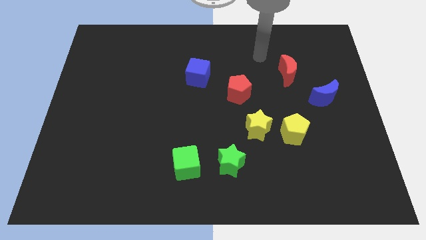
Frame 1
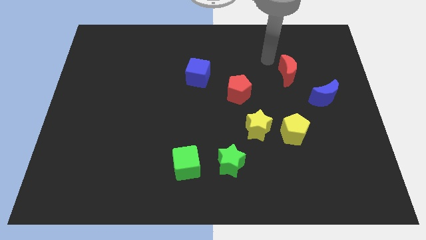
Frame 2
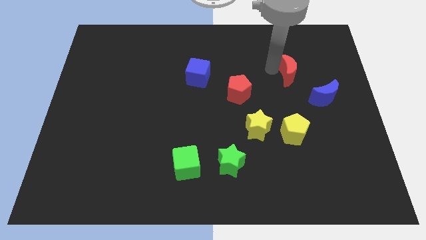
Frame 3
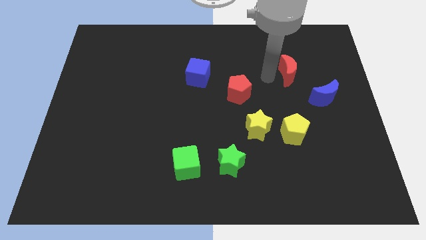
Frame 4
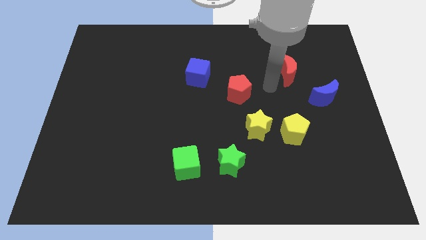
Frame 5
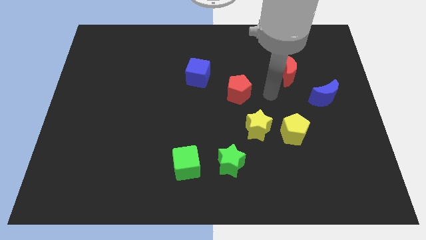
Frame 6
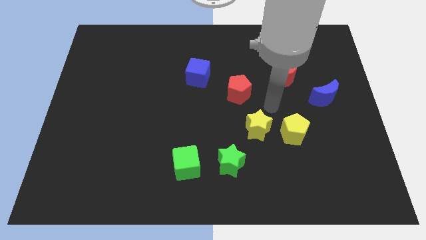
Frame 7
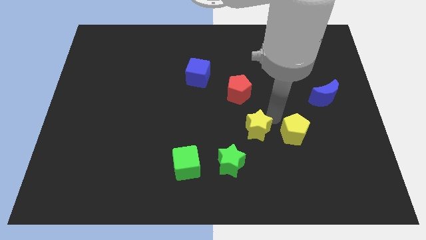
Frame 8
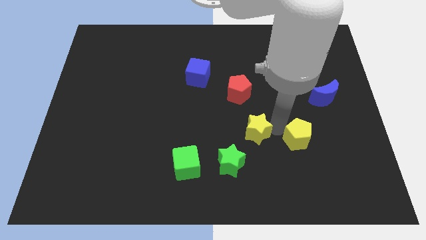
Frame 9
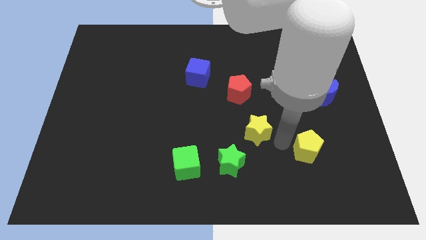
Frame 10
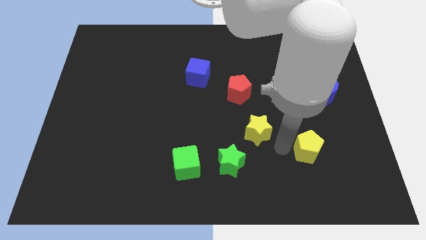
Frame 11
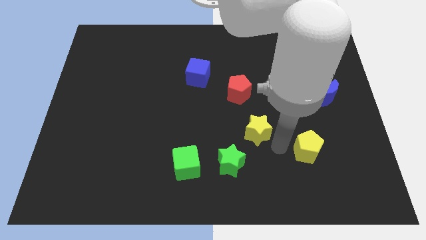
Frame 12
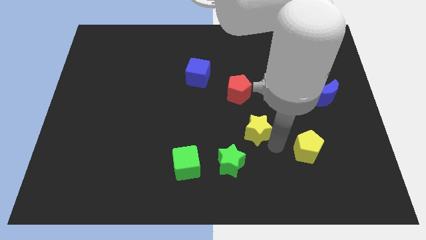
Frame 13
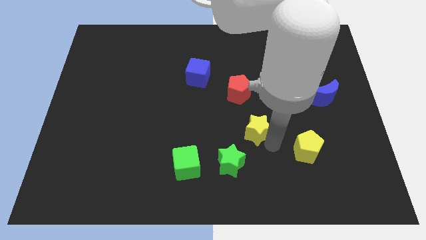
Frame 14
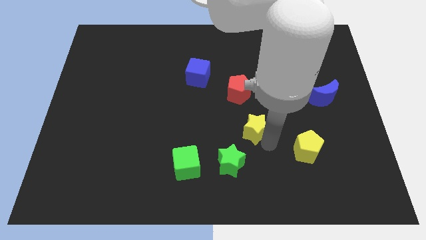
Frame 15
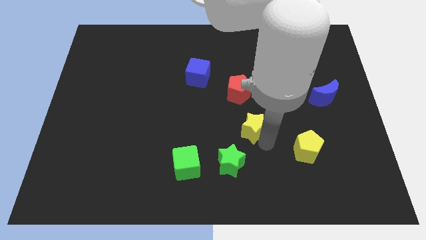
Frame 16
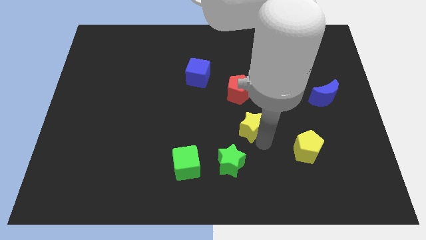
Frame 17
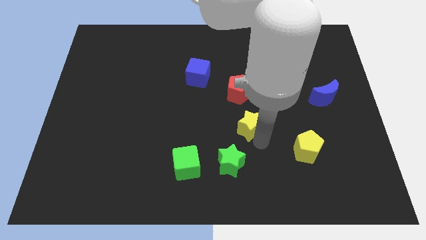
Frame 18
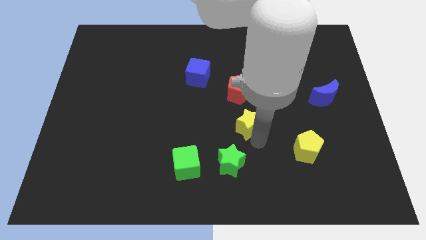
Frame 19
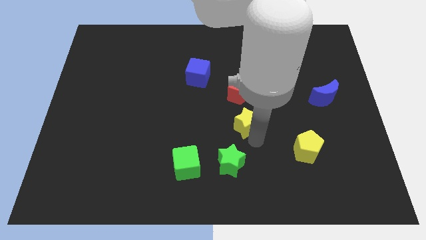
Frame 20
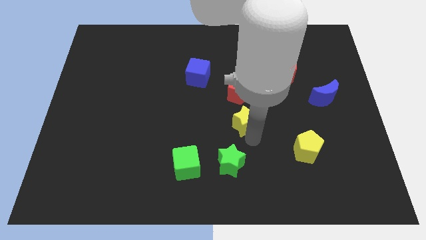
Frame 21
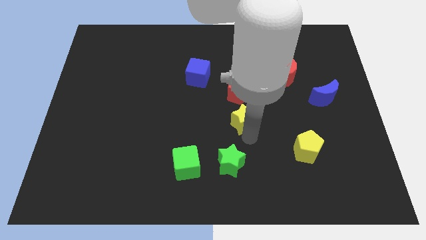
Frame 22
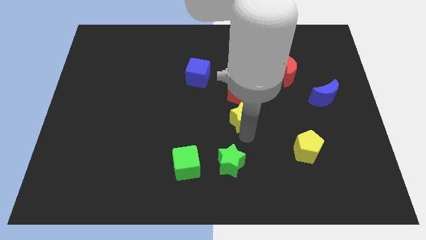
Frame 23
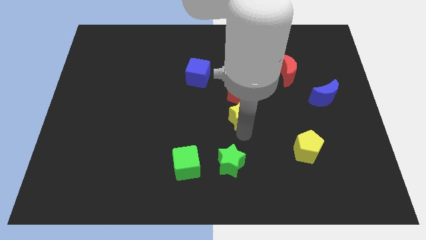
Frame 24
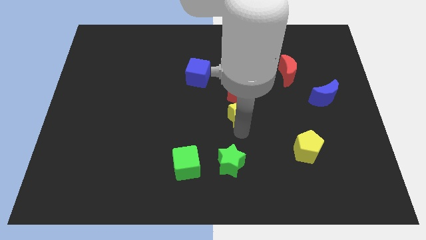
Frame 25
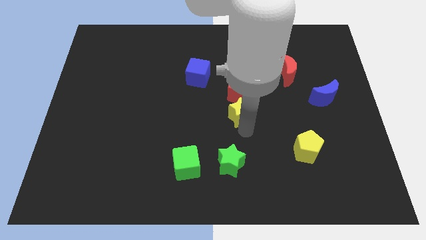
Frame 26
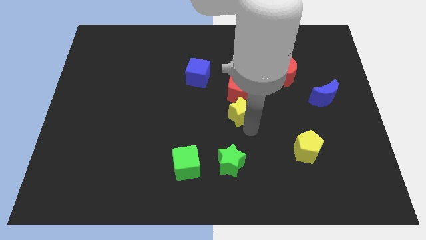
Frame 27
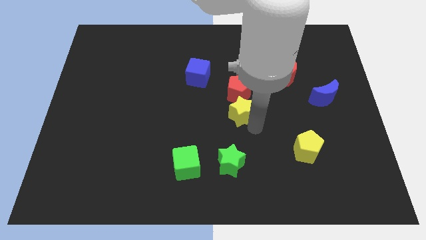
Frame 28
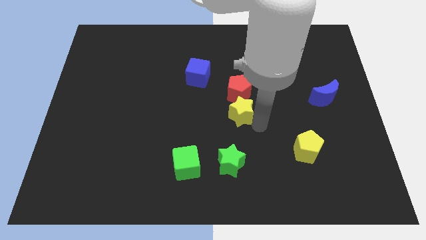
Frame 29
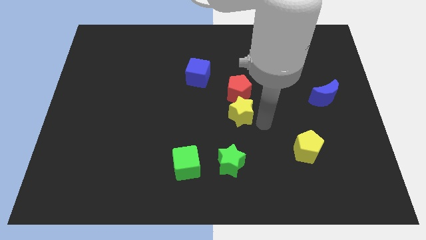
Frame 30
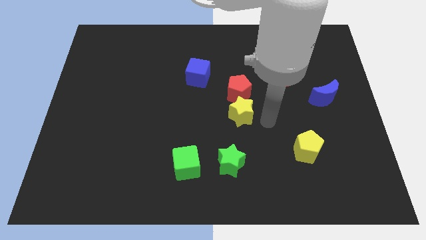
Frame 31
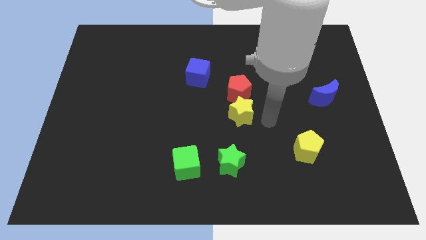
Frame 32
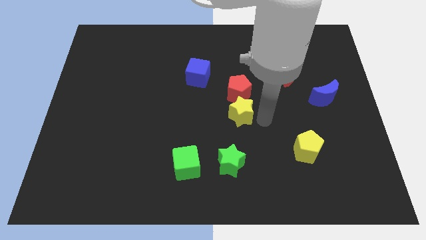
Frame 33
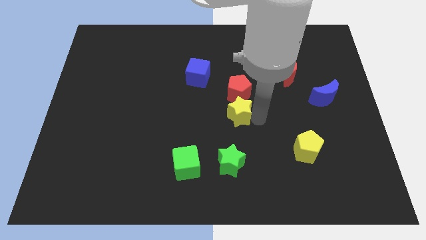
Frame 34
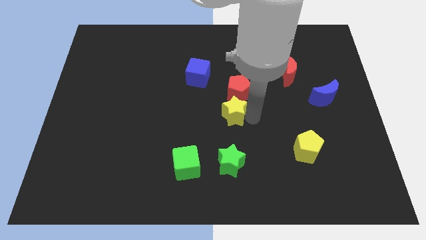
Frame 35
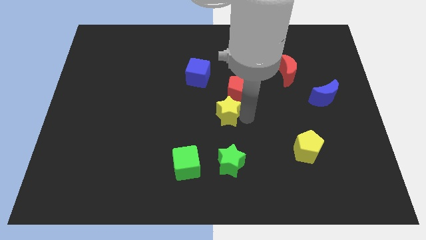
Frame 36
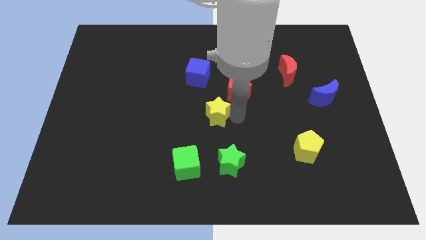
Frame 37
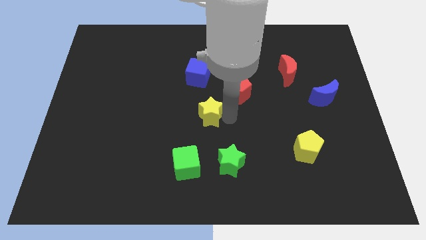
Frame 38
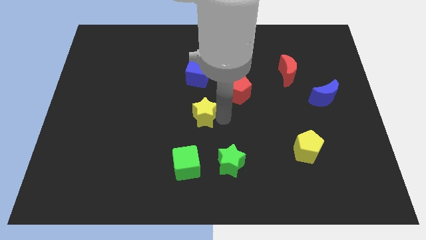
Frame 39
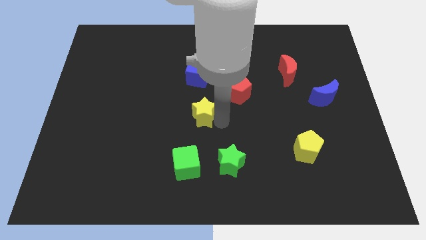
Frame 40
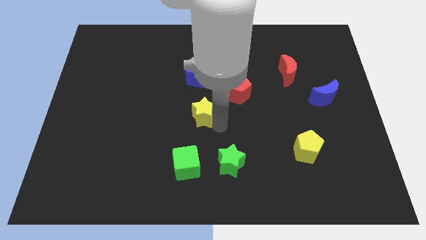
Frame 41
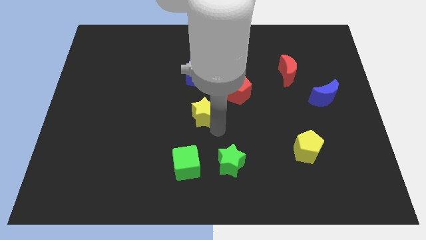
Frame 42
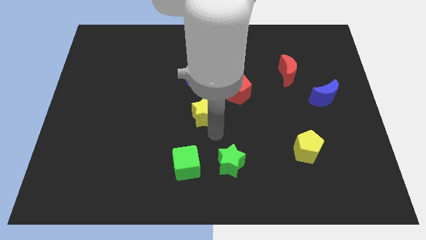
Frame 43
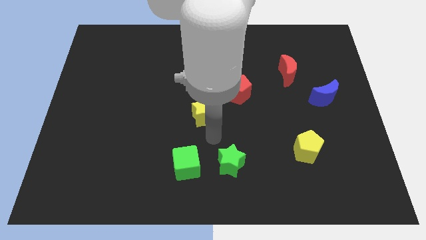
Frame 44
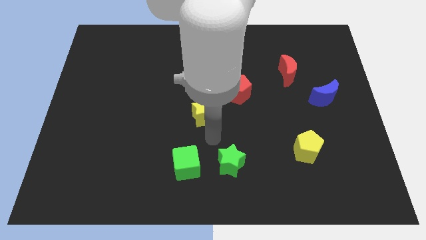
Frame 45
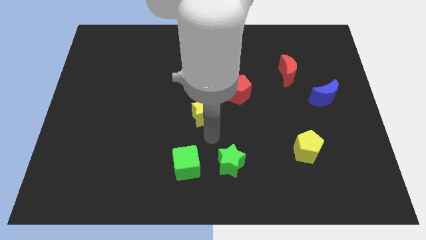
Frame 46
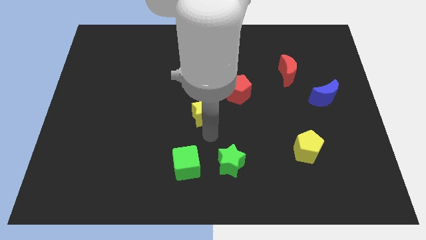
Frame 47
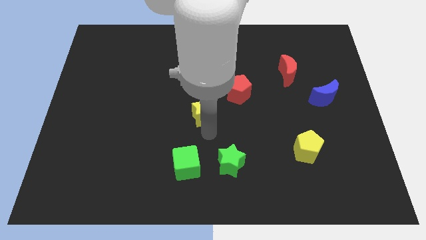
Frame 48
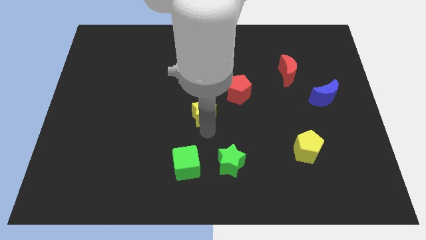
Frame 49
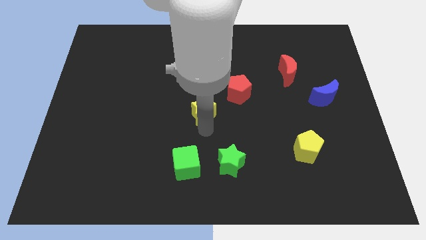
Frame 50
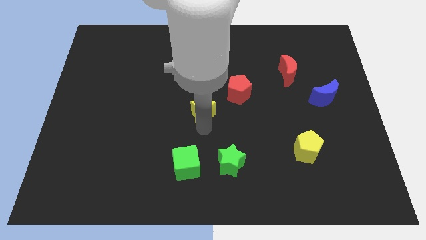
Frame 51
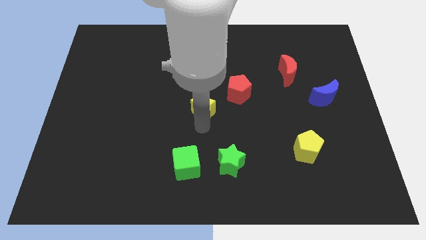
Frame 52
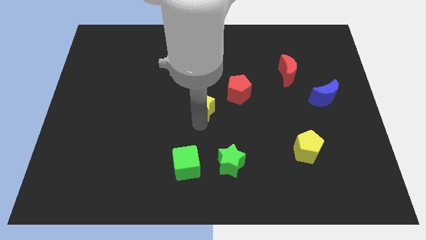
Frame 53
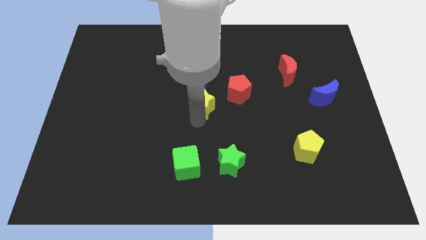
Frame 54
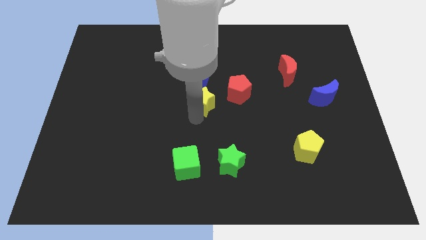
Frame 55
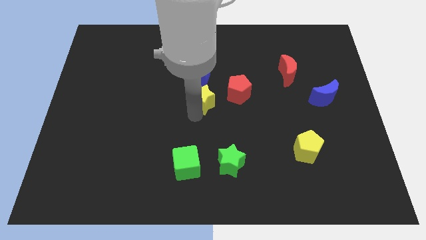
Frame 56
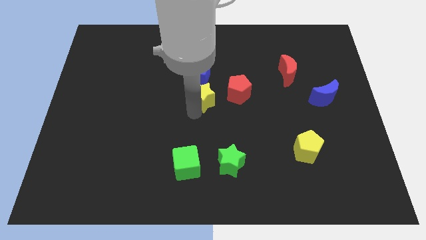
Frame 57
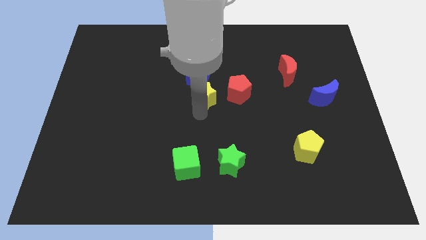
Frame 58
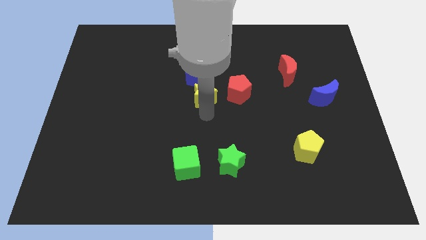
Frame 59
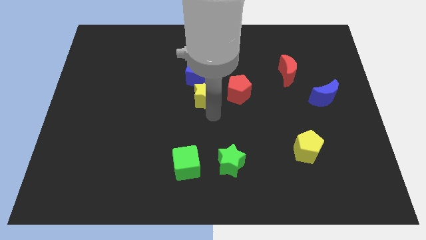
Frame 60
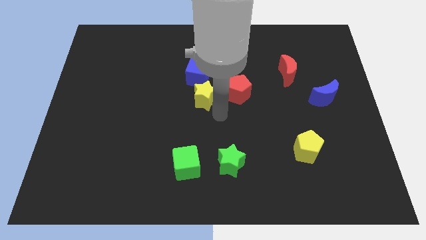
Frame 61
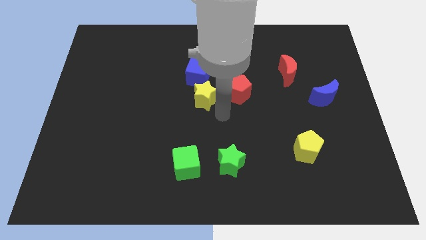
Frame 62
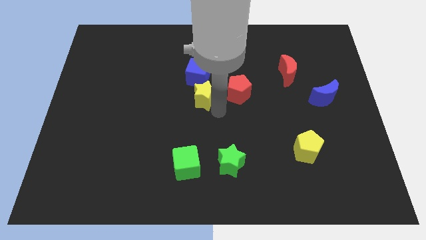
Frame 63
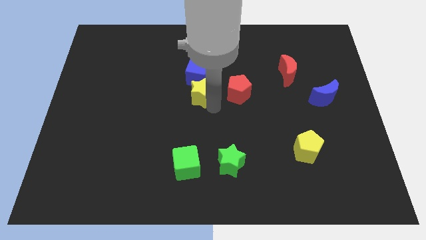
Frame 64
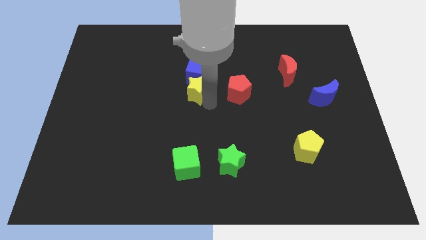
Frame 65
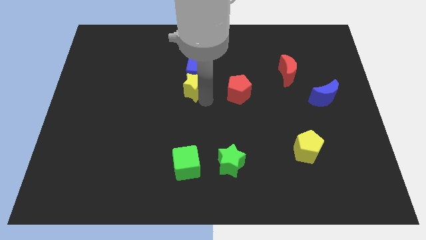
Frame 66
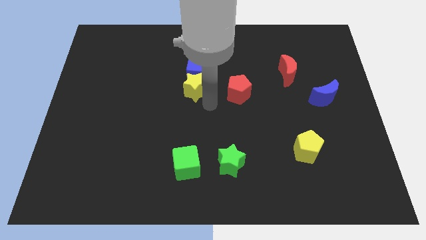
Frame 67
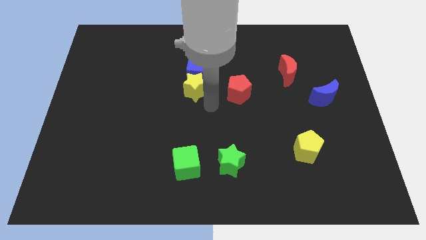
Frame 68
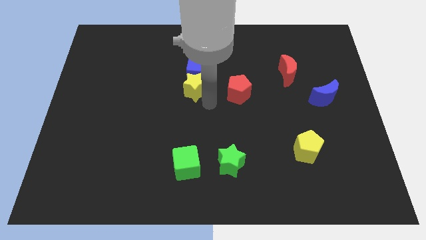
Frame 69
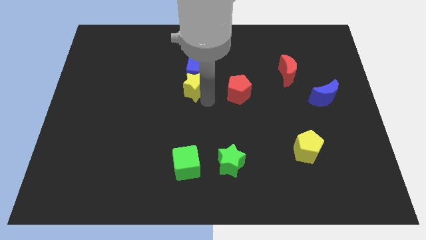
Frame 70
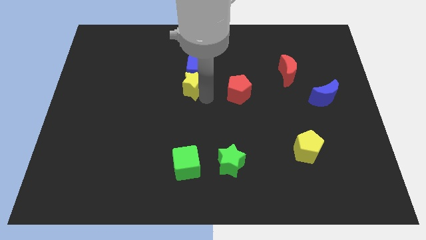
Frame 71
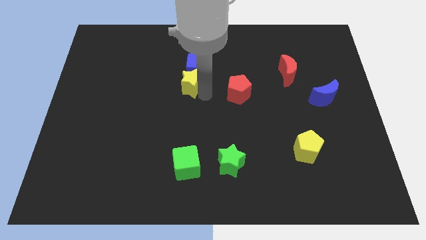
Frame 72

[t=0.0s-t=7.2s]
move the yellow star up and to the left

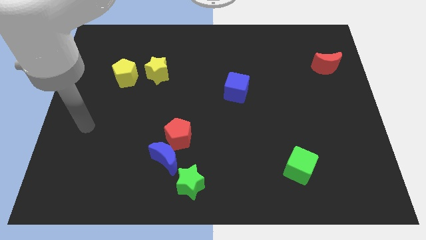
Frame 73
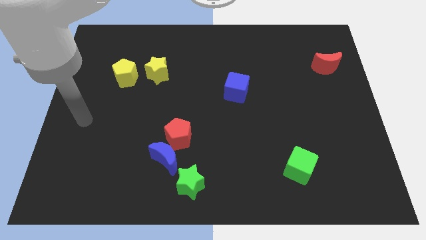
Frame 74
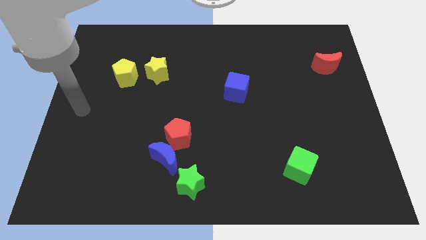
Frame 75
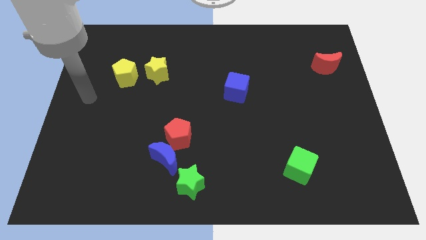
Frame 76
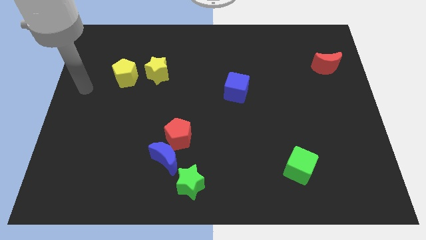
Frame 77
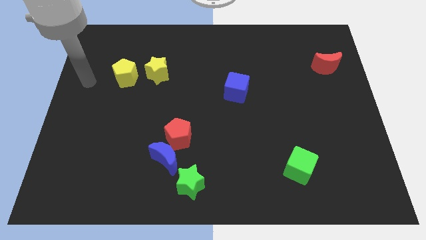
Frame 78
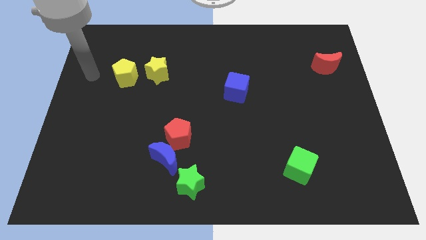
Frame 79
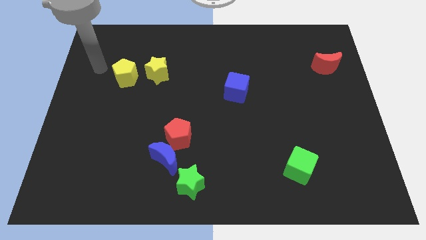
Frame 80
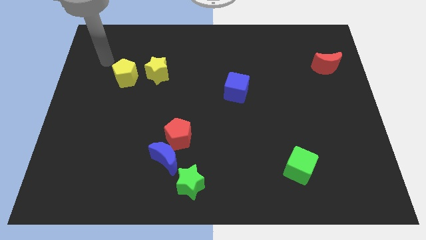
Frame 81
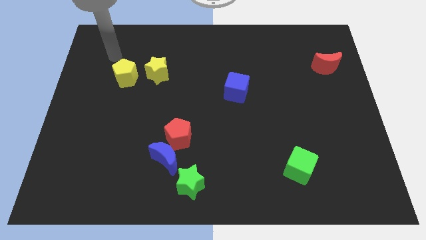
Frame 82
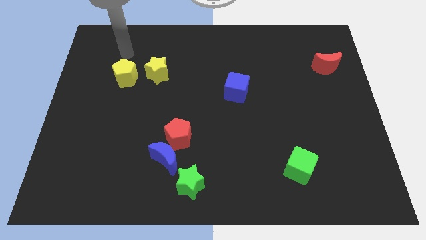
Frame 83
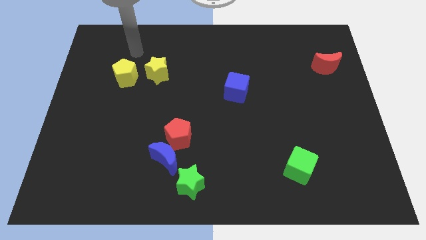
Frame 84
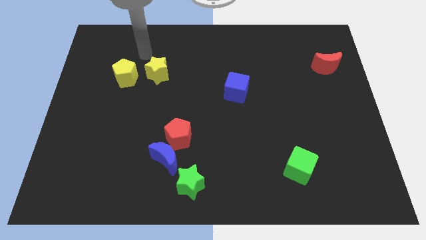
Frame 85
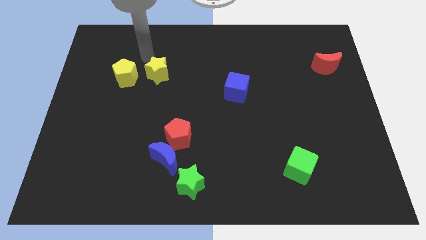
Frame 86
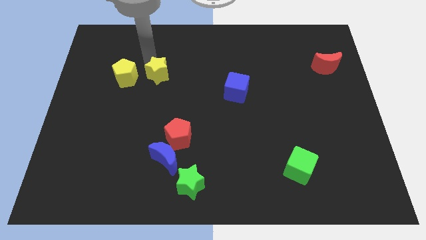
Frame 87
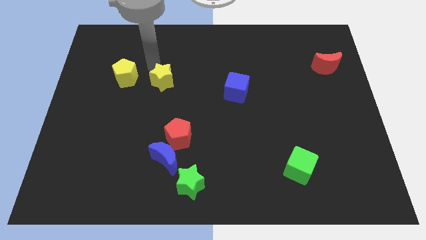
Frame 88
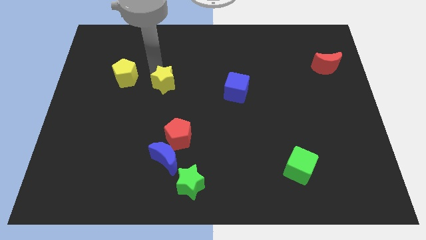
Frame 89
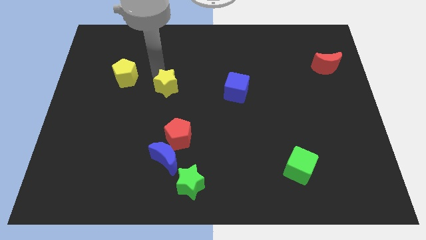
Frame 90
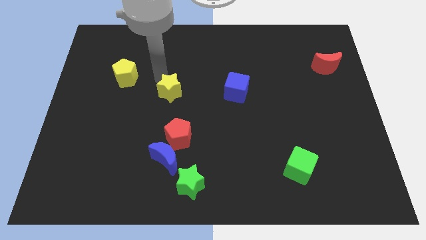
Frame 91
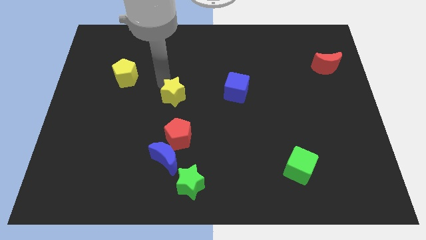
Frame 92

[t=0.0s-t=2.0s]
slightly slide the yellow star down and then to the right
